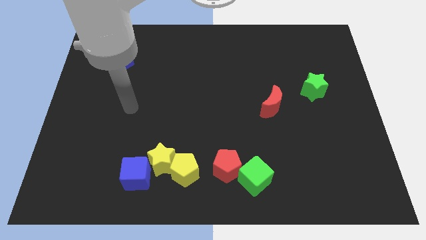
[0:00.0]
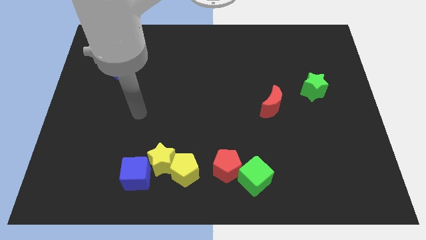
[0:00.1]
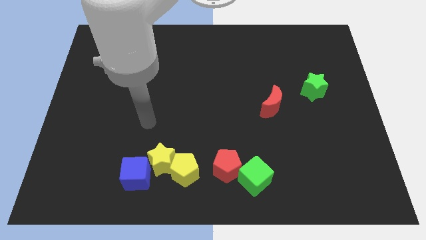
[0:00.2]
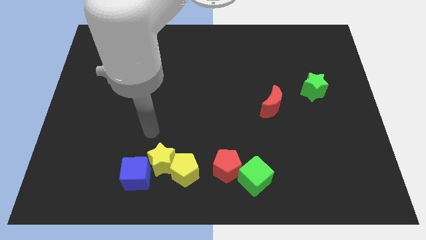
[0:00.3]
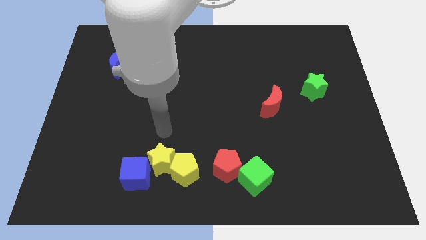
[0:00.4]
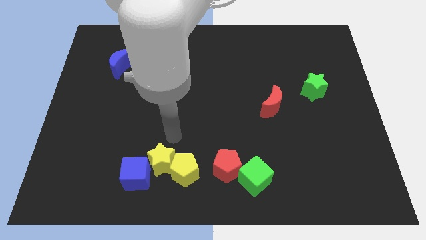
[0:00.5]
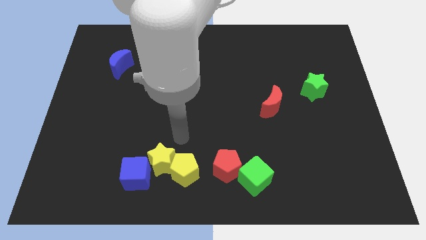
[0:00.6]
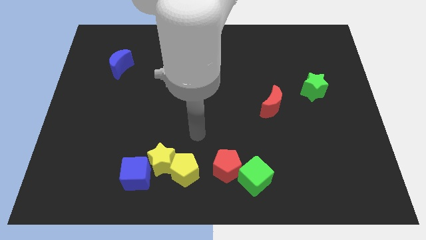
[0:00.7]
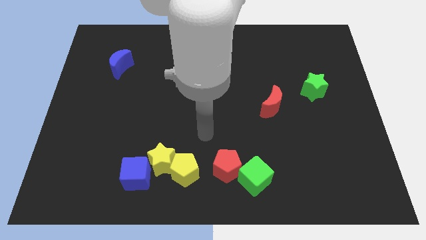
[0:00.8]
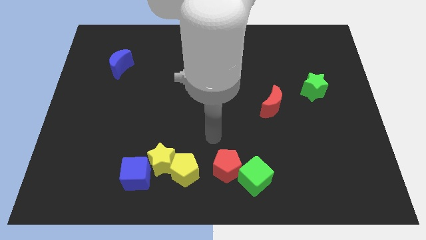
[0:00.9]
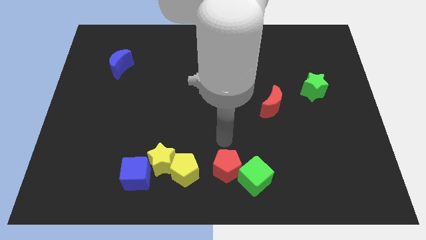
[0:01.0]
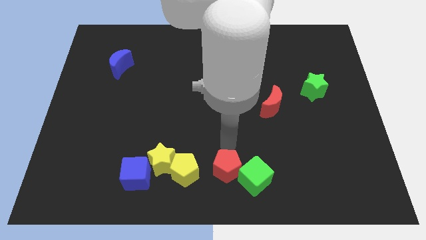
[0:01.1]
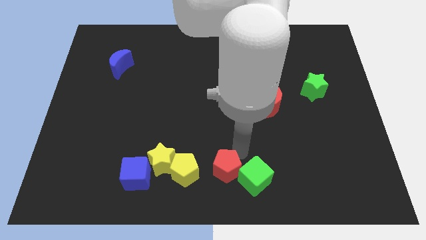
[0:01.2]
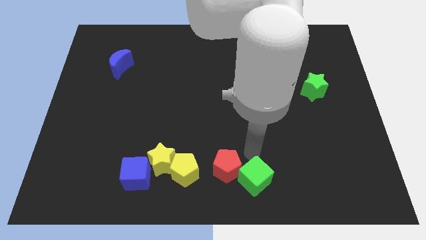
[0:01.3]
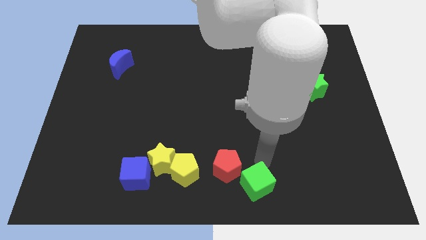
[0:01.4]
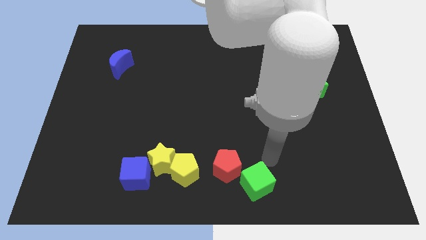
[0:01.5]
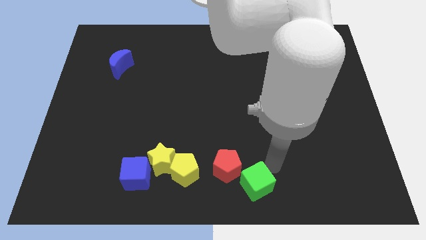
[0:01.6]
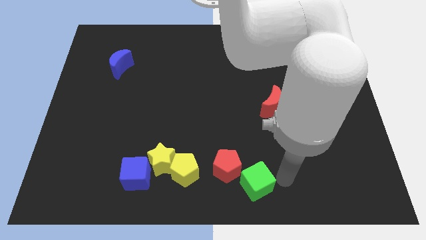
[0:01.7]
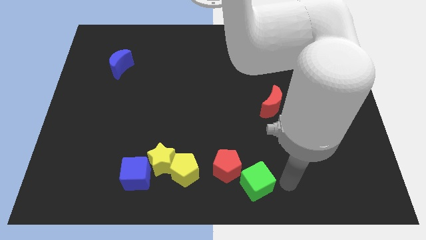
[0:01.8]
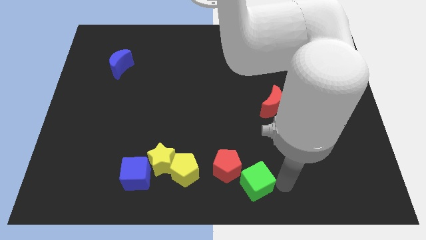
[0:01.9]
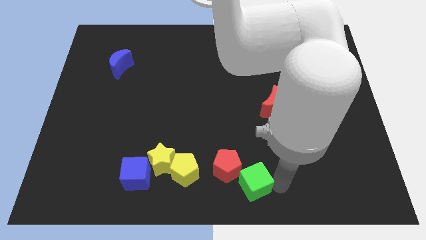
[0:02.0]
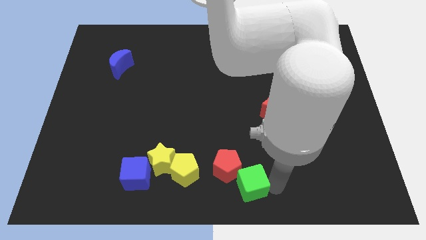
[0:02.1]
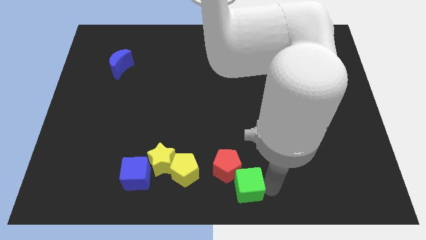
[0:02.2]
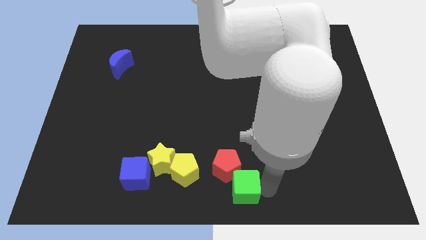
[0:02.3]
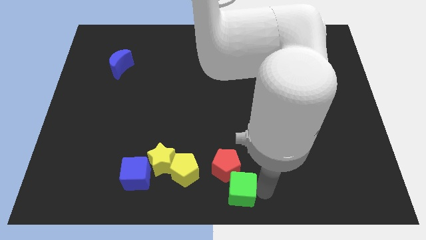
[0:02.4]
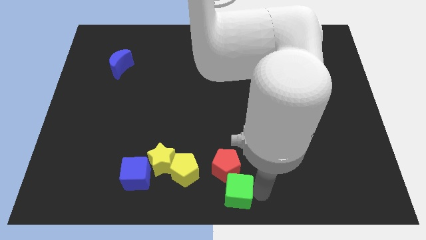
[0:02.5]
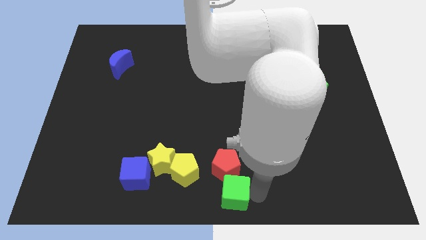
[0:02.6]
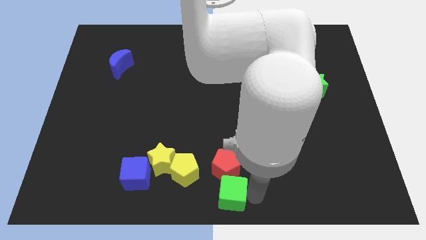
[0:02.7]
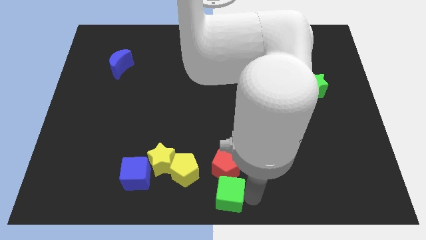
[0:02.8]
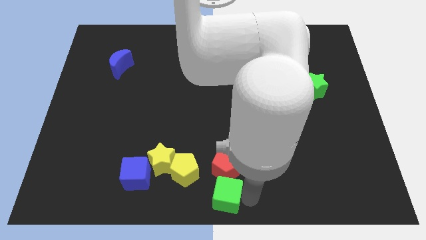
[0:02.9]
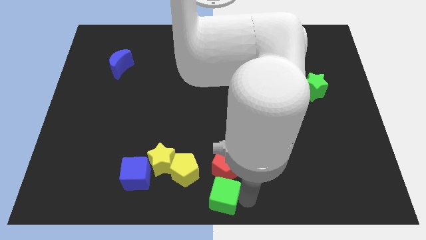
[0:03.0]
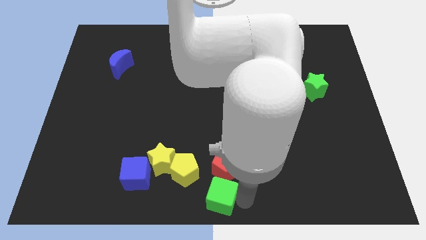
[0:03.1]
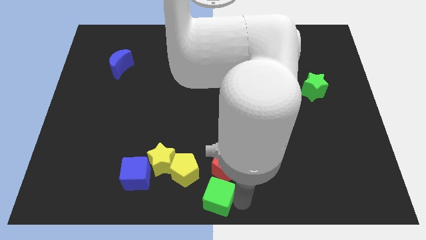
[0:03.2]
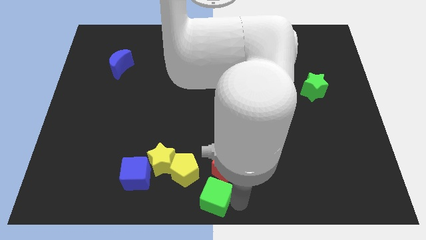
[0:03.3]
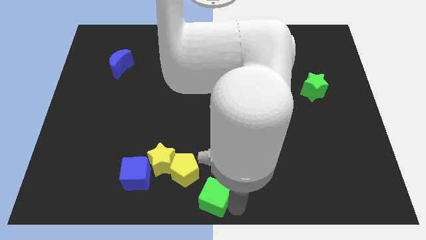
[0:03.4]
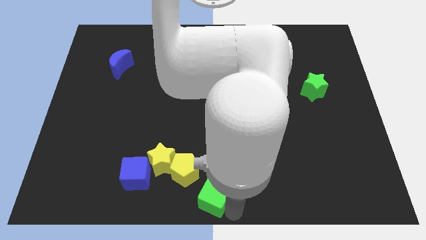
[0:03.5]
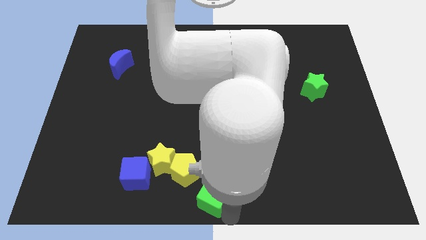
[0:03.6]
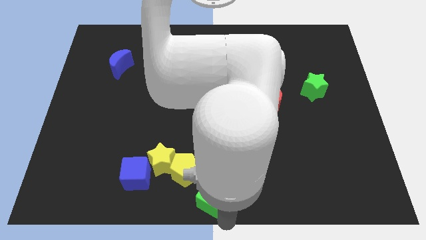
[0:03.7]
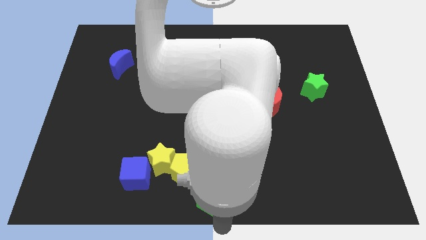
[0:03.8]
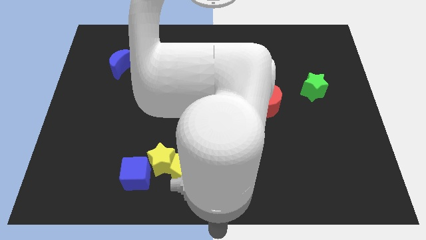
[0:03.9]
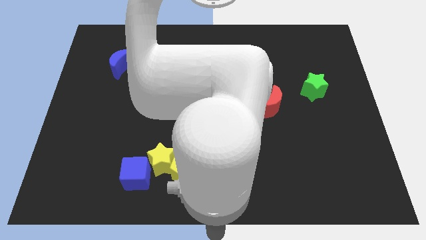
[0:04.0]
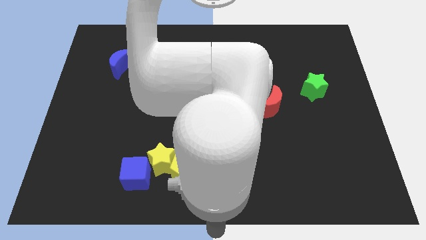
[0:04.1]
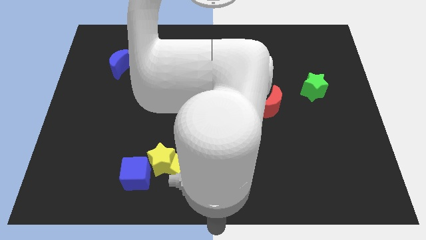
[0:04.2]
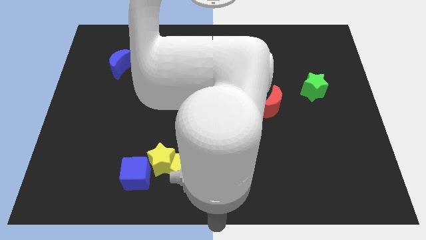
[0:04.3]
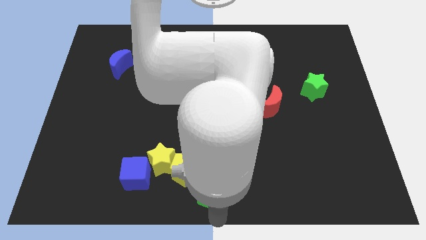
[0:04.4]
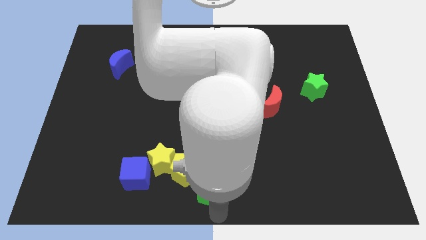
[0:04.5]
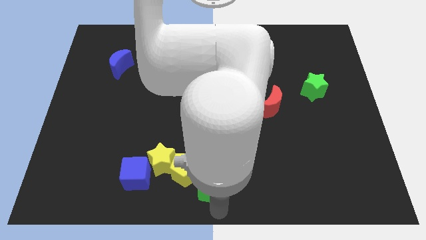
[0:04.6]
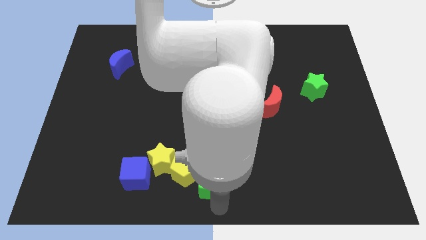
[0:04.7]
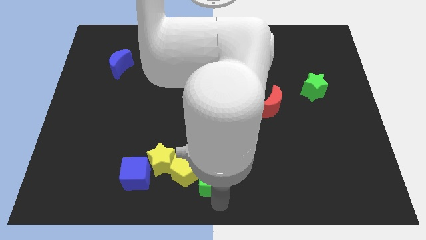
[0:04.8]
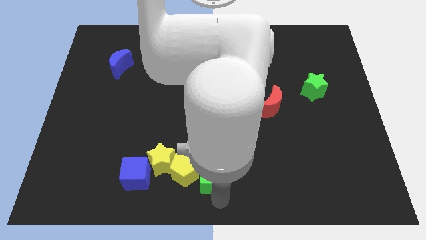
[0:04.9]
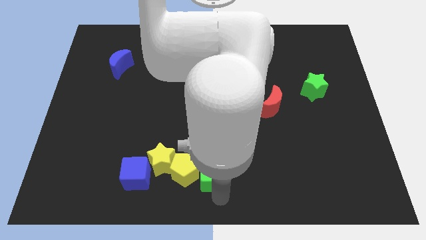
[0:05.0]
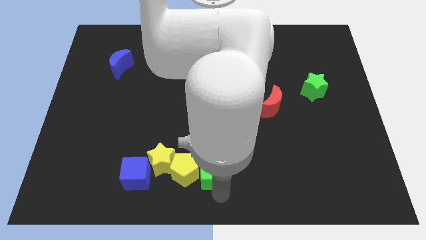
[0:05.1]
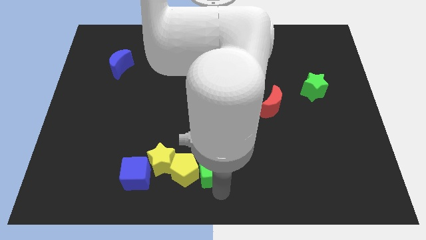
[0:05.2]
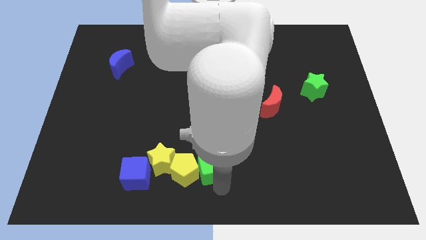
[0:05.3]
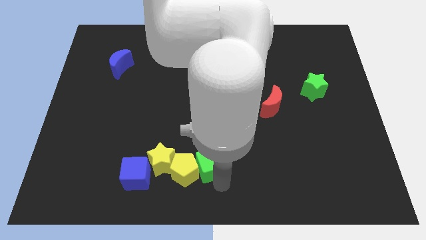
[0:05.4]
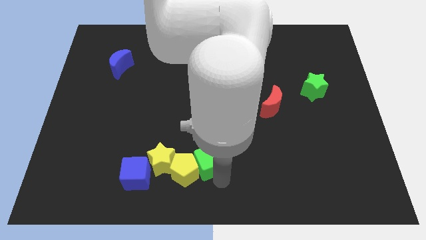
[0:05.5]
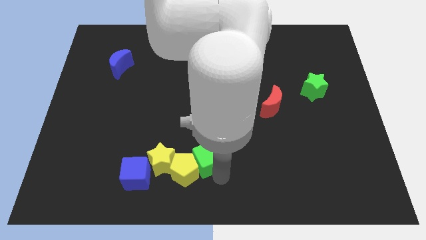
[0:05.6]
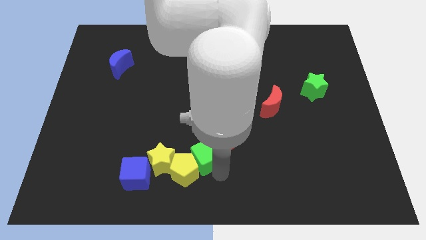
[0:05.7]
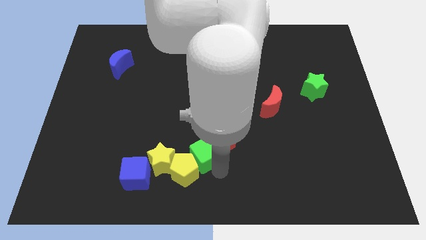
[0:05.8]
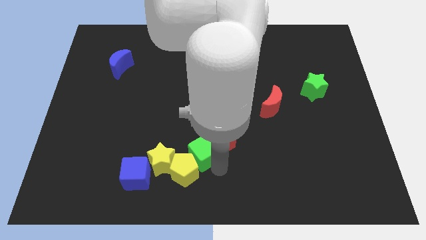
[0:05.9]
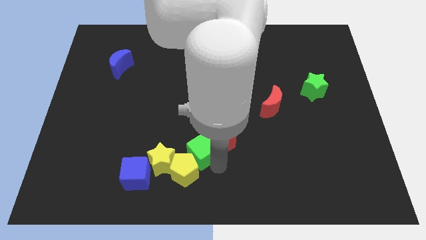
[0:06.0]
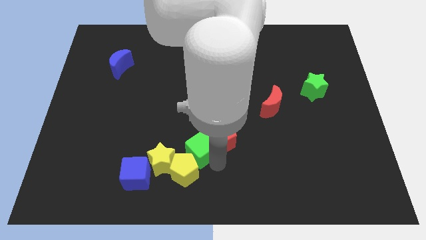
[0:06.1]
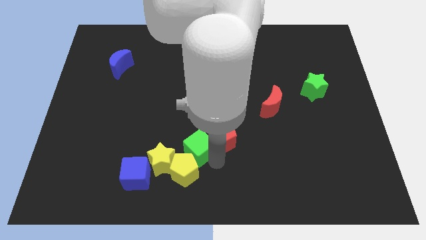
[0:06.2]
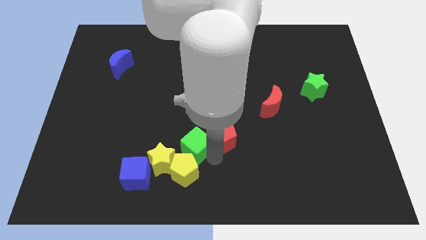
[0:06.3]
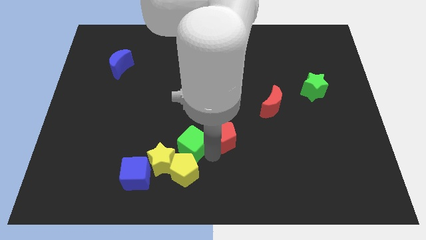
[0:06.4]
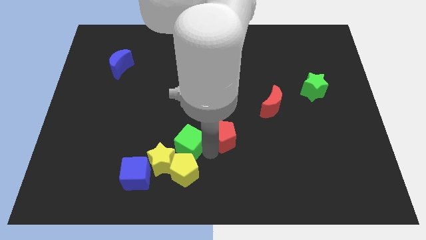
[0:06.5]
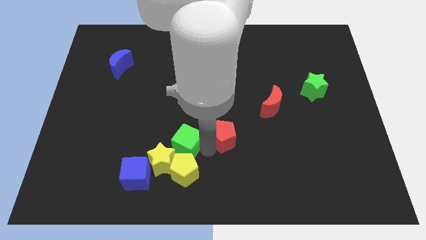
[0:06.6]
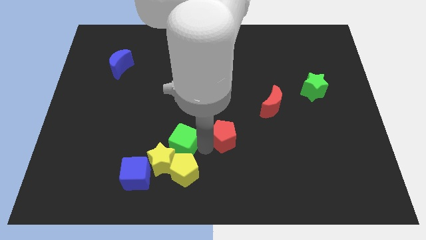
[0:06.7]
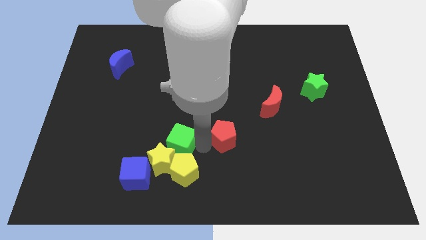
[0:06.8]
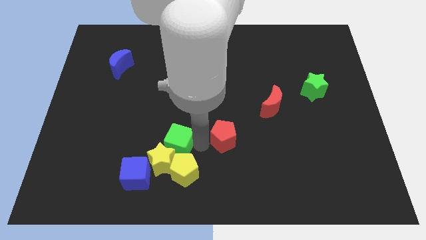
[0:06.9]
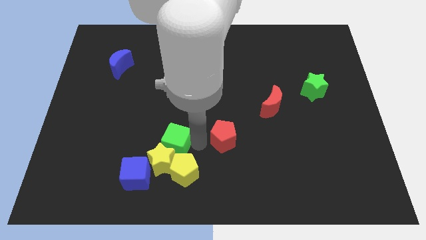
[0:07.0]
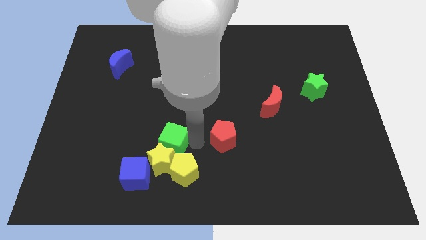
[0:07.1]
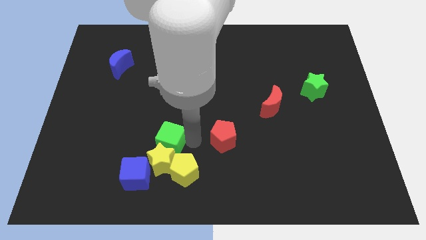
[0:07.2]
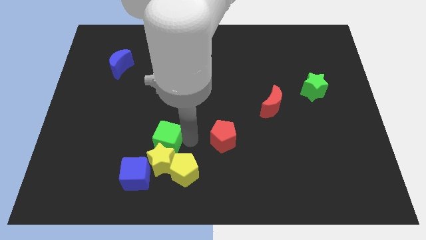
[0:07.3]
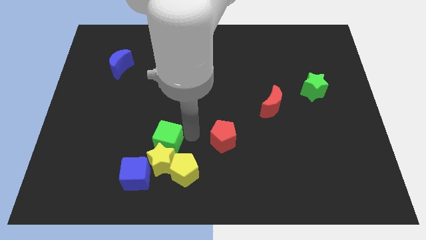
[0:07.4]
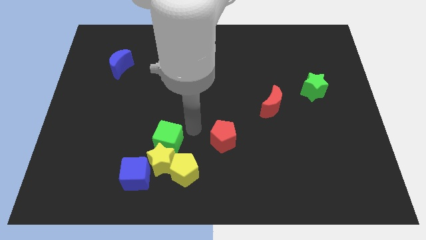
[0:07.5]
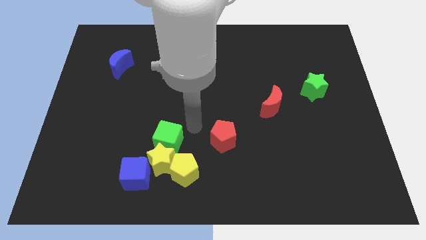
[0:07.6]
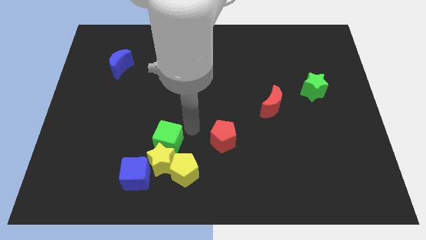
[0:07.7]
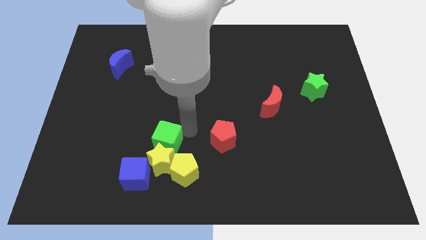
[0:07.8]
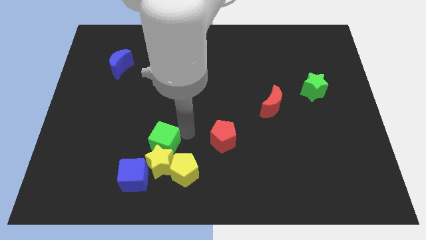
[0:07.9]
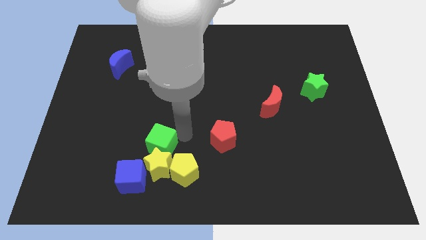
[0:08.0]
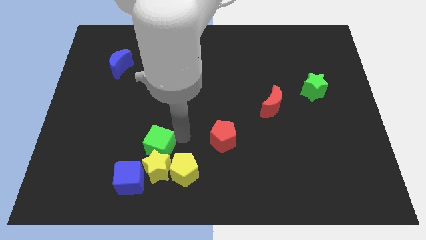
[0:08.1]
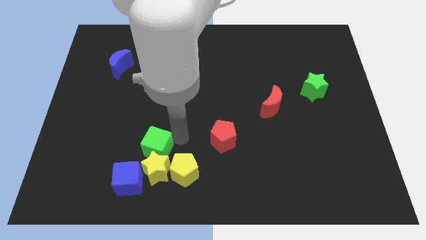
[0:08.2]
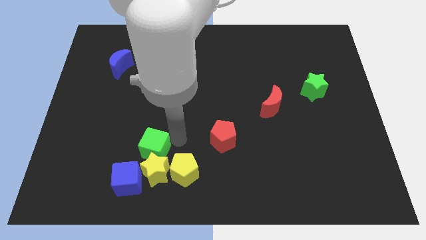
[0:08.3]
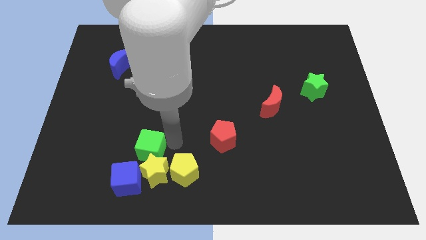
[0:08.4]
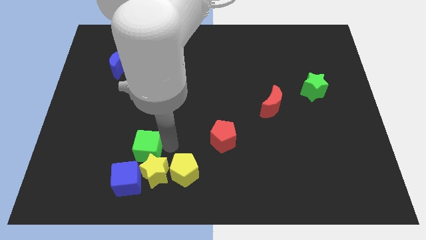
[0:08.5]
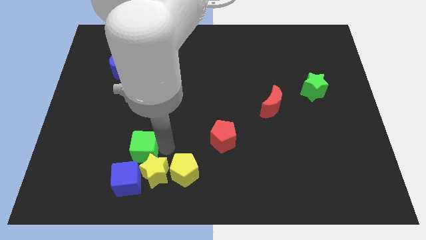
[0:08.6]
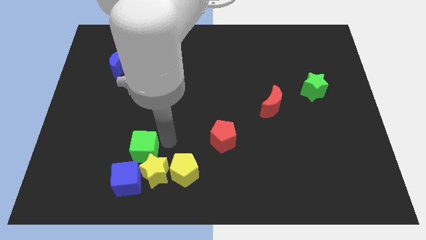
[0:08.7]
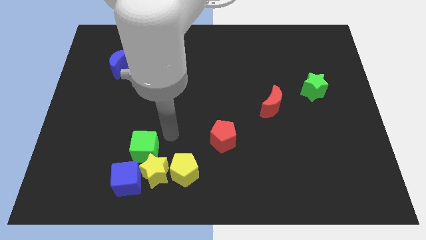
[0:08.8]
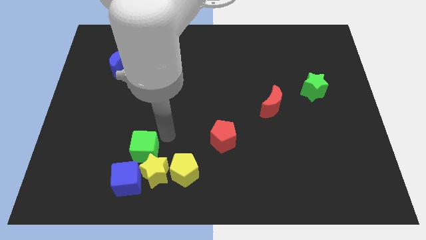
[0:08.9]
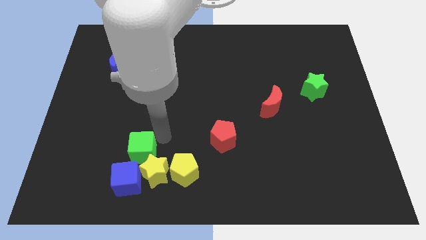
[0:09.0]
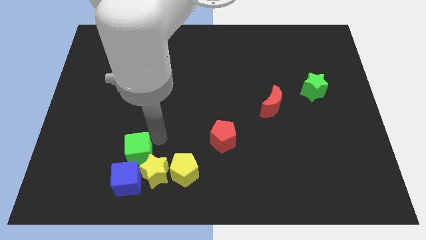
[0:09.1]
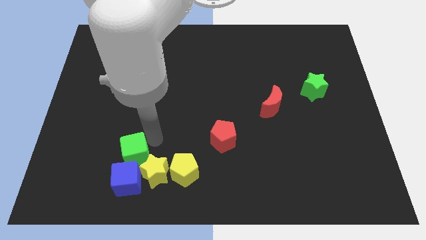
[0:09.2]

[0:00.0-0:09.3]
slide the green cube just left of the yellow star
